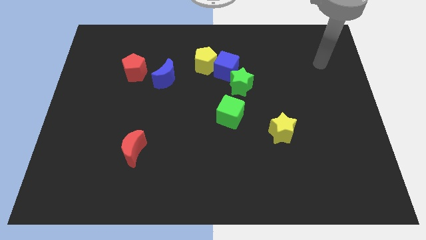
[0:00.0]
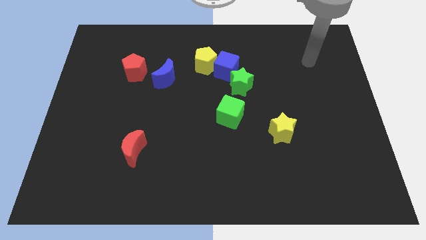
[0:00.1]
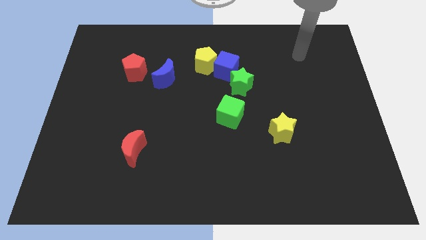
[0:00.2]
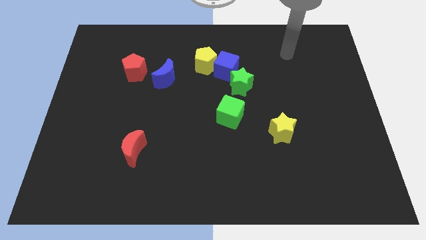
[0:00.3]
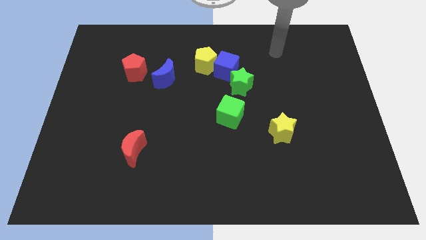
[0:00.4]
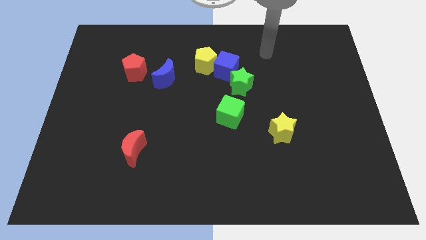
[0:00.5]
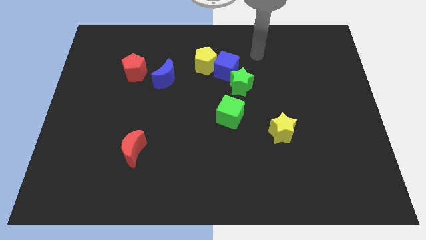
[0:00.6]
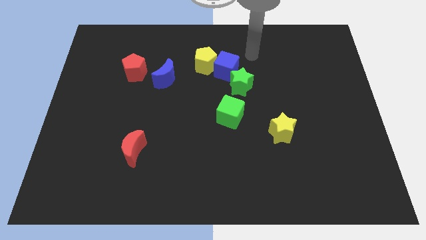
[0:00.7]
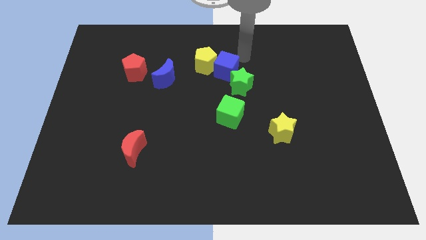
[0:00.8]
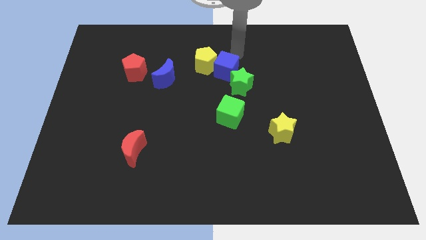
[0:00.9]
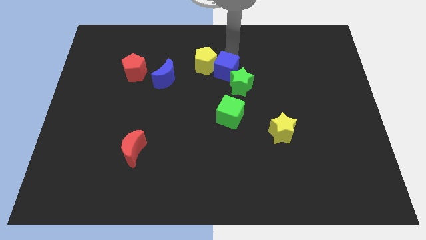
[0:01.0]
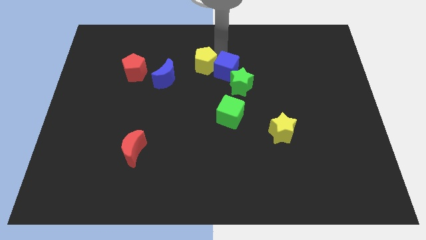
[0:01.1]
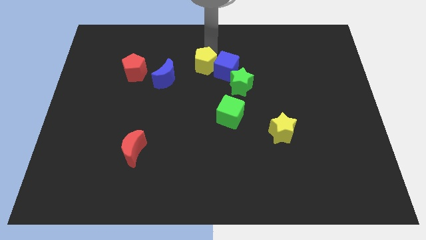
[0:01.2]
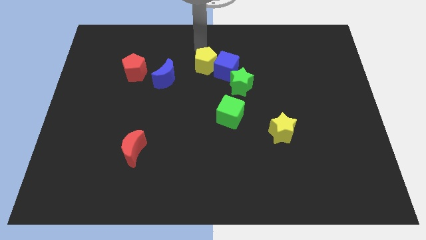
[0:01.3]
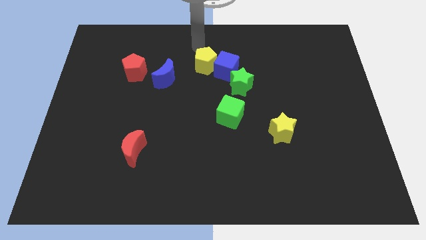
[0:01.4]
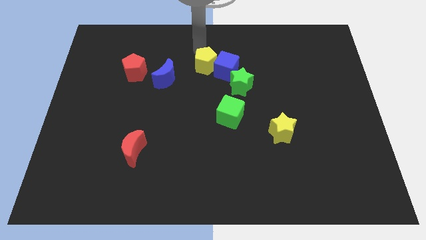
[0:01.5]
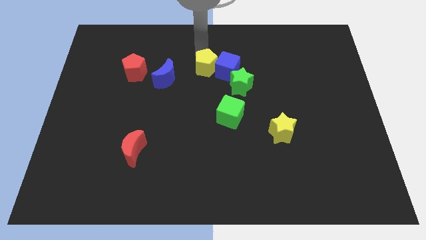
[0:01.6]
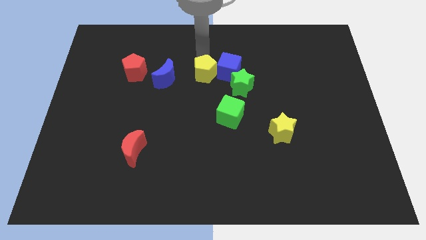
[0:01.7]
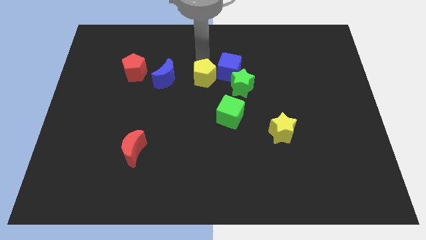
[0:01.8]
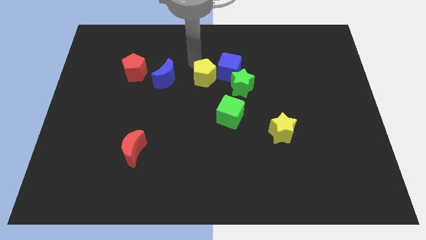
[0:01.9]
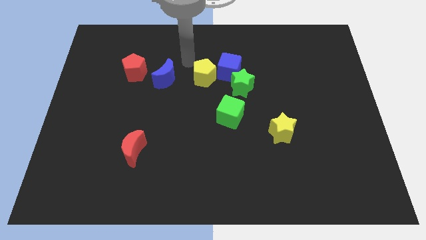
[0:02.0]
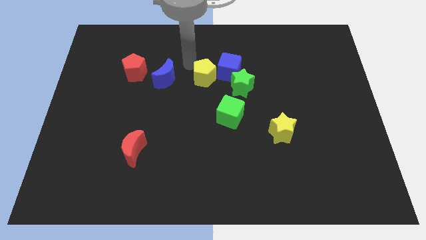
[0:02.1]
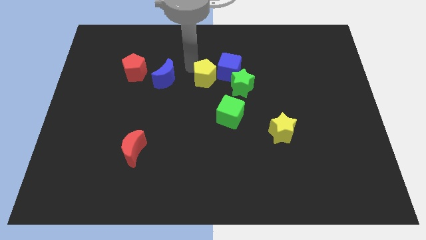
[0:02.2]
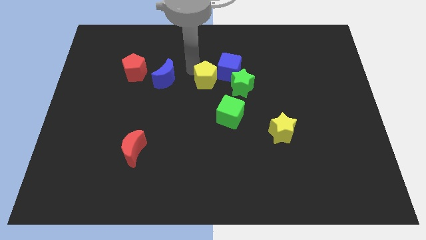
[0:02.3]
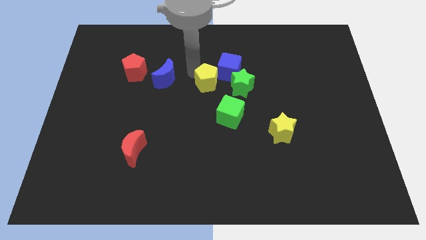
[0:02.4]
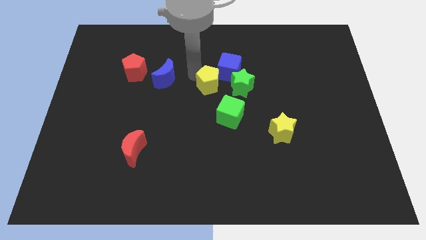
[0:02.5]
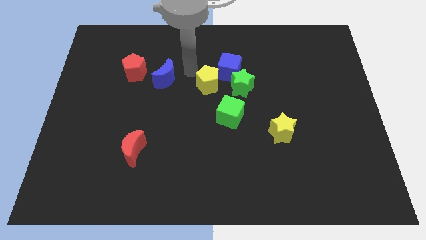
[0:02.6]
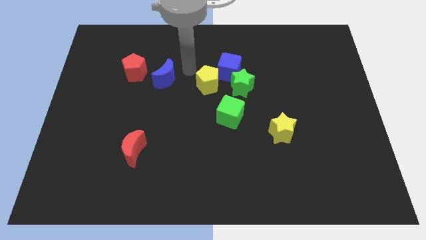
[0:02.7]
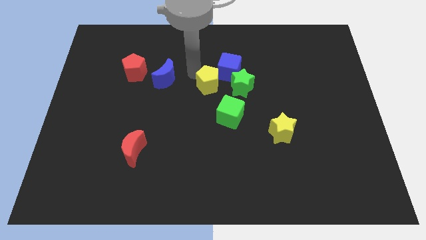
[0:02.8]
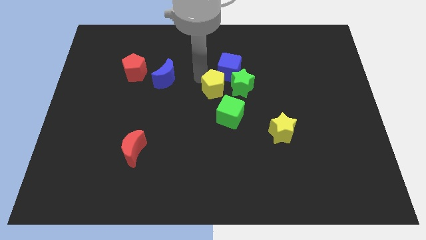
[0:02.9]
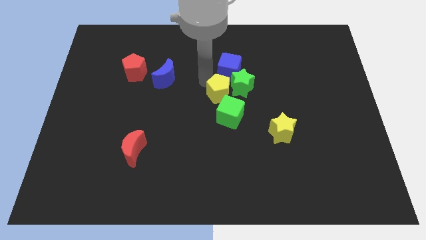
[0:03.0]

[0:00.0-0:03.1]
slightly move the yellow pentagon downwards and to the right diagonally

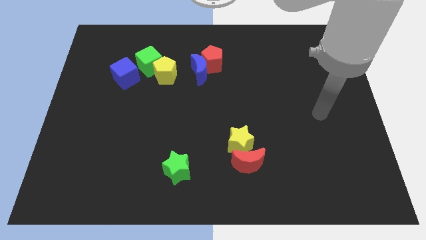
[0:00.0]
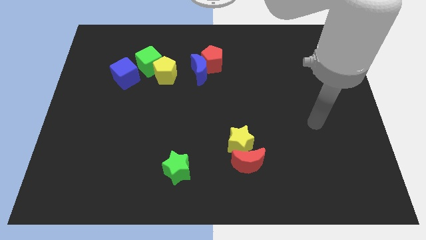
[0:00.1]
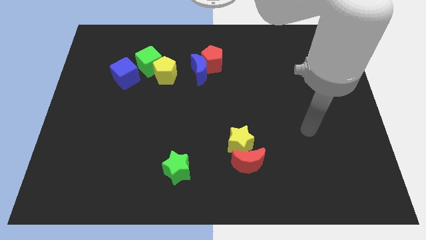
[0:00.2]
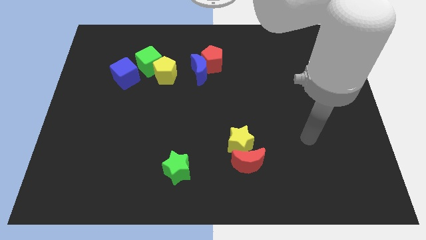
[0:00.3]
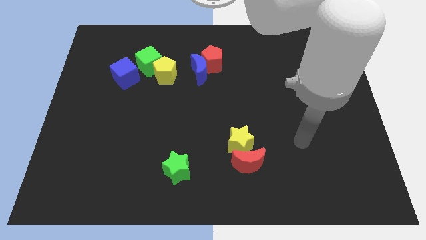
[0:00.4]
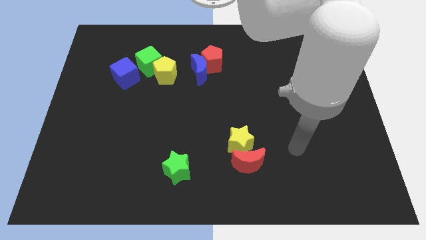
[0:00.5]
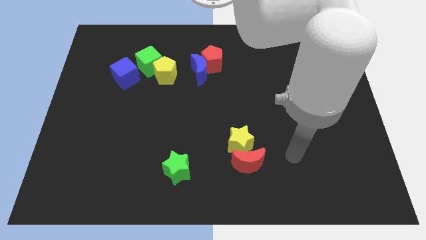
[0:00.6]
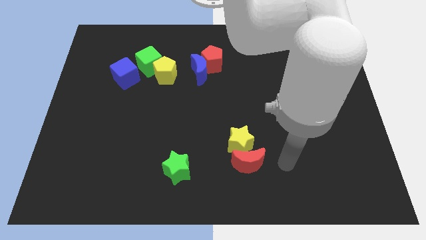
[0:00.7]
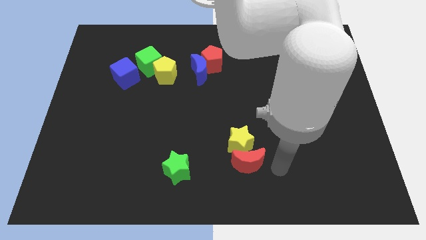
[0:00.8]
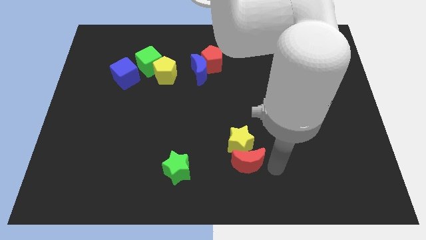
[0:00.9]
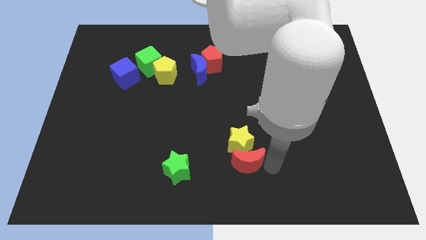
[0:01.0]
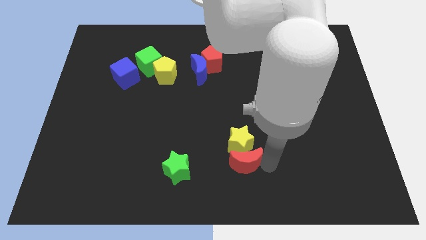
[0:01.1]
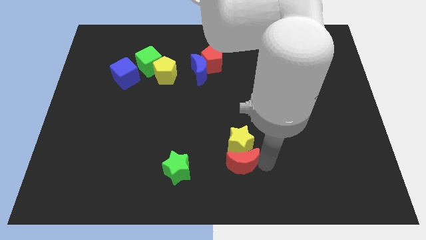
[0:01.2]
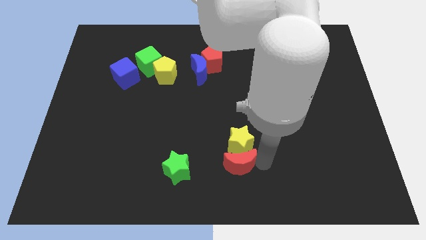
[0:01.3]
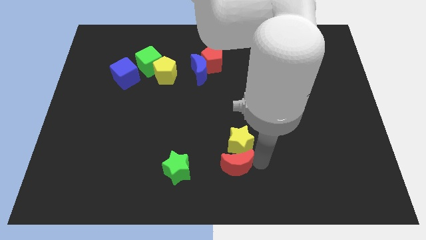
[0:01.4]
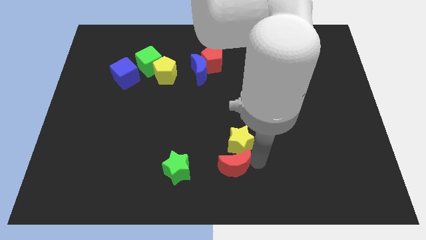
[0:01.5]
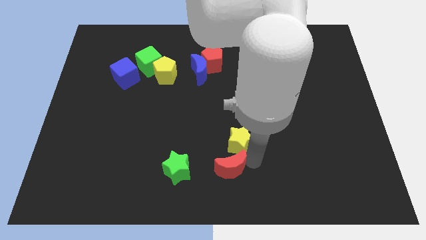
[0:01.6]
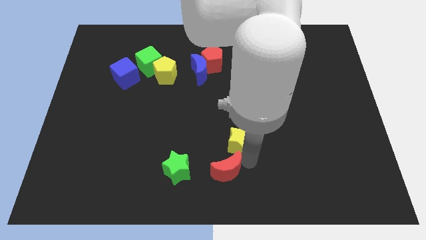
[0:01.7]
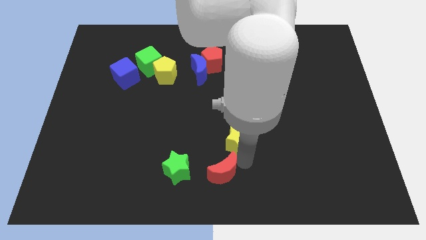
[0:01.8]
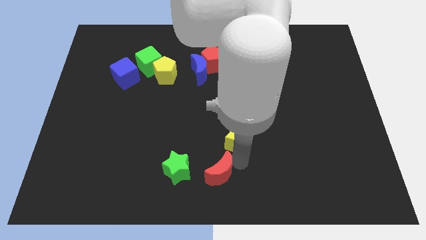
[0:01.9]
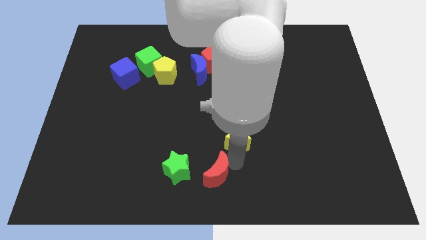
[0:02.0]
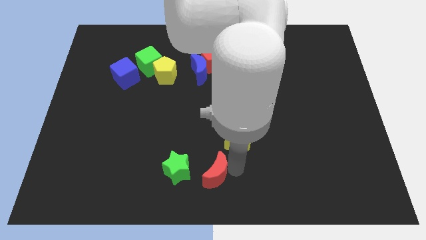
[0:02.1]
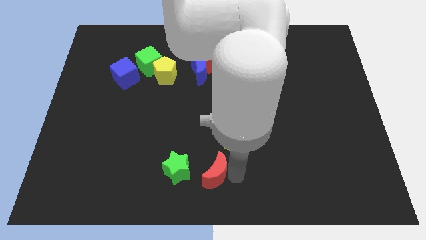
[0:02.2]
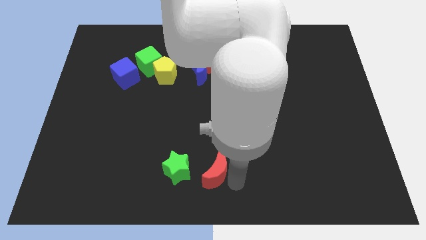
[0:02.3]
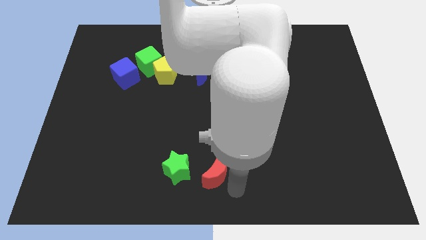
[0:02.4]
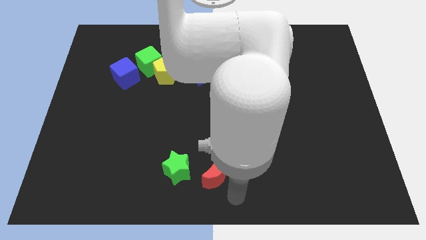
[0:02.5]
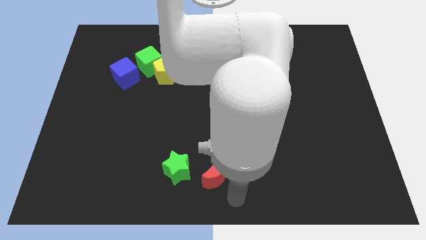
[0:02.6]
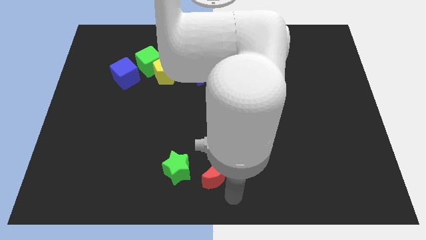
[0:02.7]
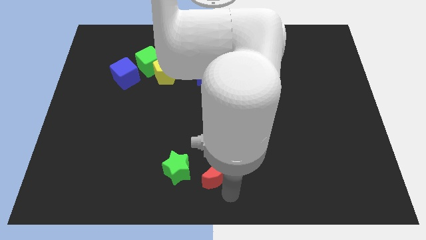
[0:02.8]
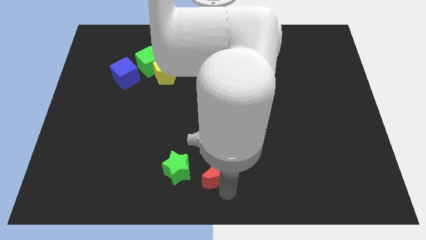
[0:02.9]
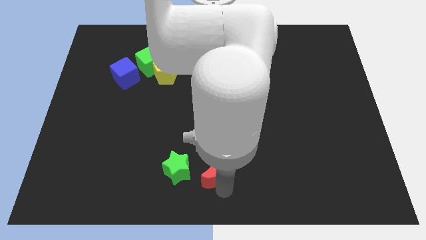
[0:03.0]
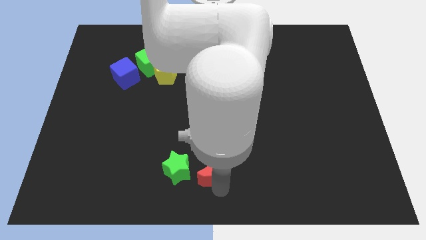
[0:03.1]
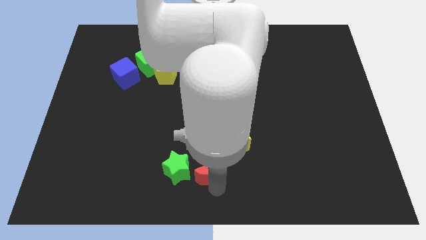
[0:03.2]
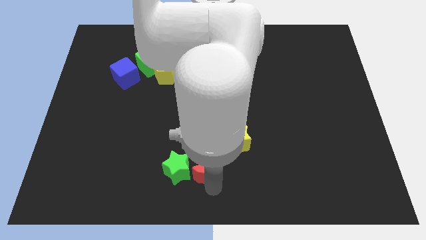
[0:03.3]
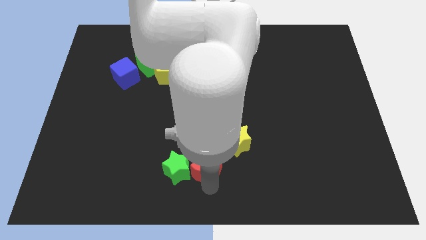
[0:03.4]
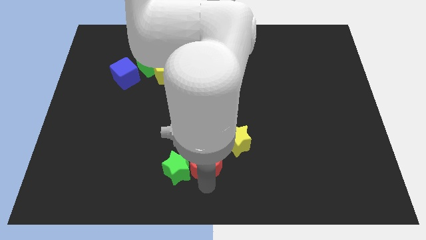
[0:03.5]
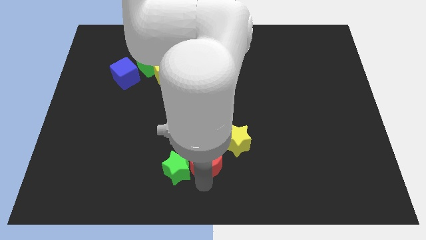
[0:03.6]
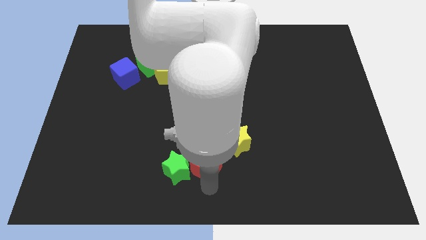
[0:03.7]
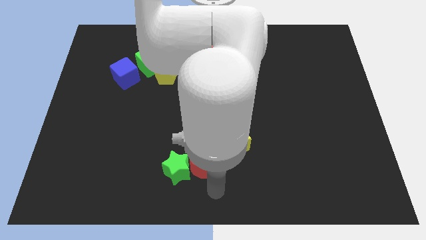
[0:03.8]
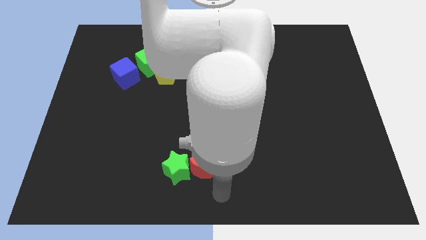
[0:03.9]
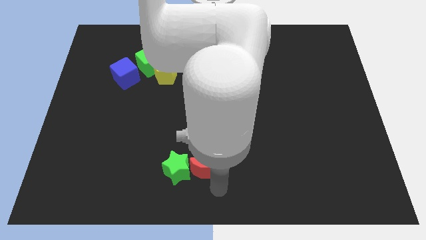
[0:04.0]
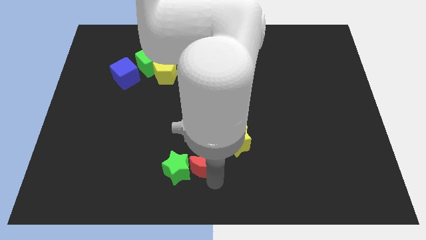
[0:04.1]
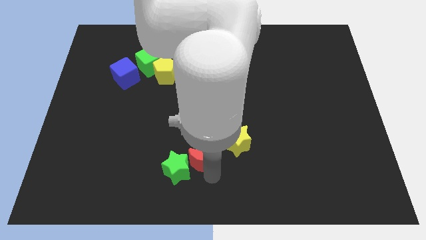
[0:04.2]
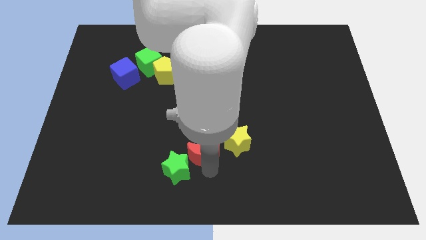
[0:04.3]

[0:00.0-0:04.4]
slide the red moon up and to the left diagonally a little

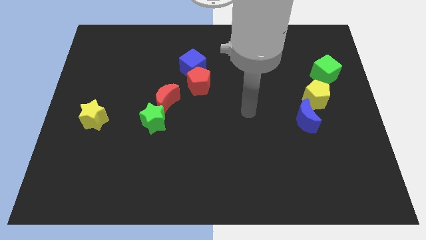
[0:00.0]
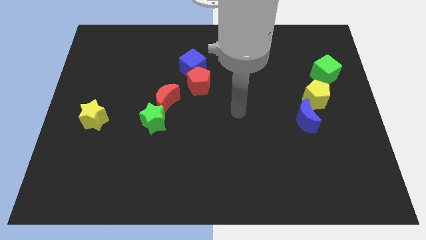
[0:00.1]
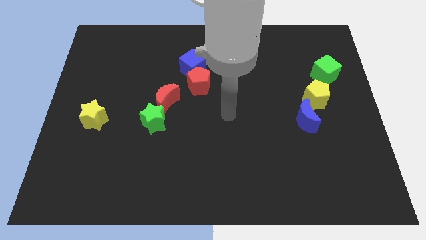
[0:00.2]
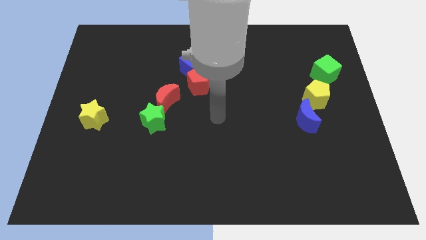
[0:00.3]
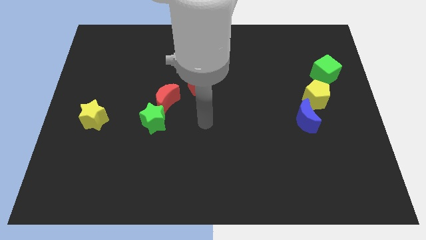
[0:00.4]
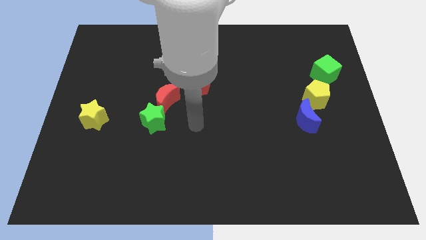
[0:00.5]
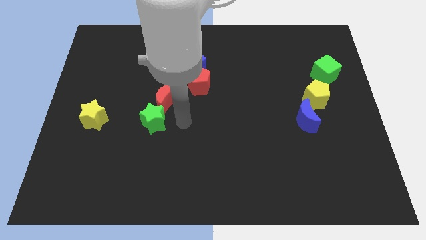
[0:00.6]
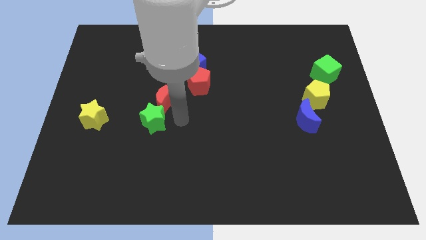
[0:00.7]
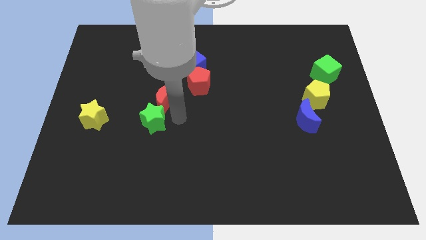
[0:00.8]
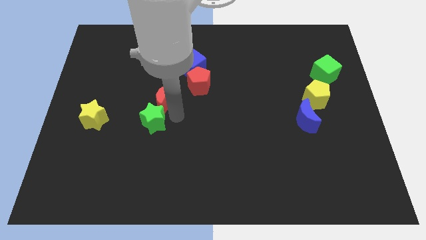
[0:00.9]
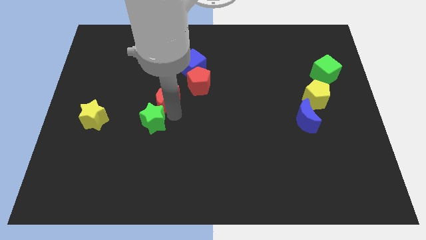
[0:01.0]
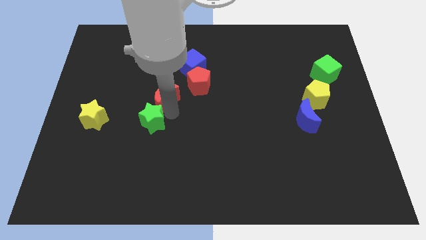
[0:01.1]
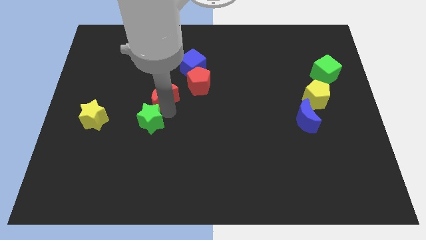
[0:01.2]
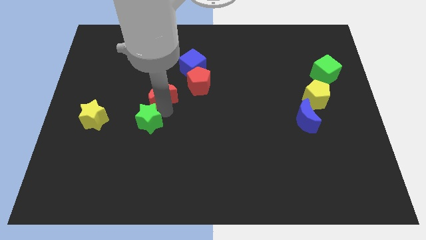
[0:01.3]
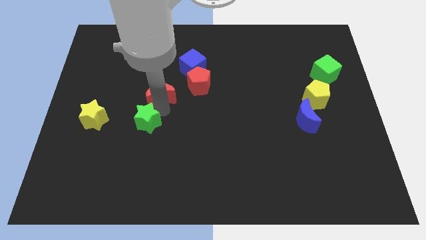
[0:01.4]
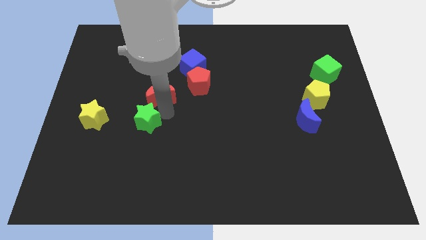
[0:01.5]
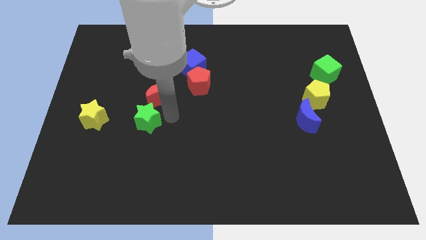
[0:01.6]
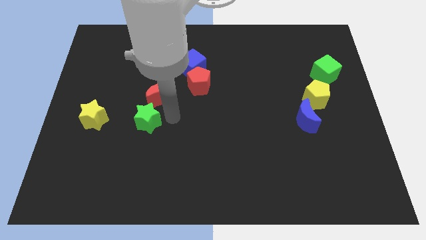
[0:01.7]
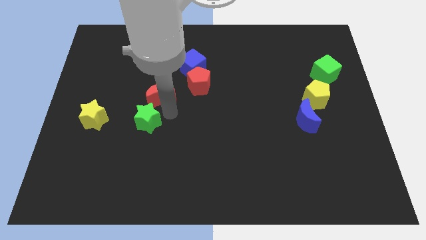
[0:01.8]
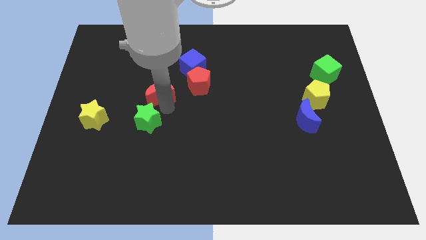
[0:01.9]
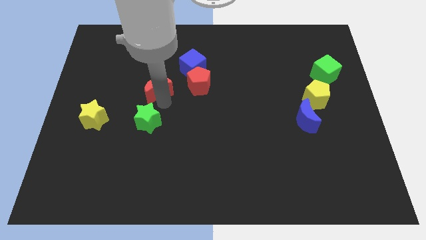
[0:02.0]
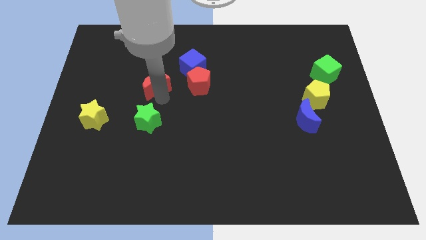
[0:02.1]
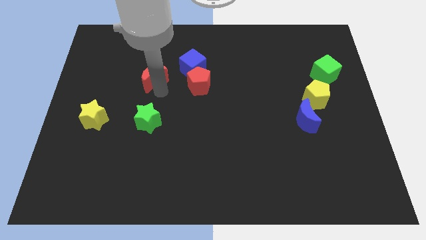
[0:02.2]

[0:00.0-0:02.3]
move the red moon a little bit diagonally up and left
